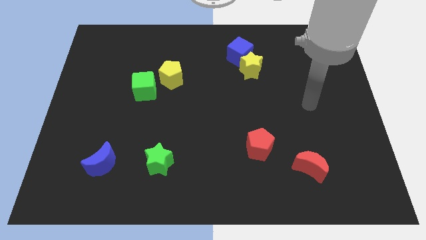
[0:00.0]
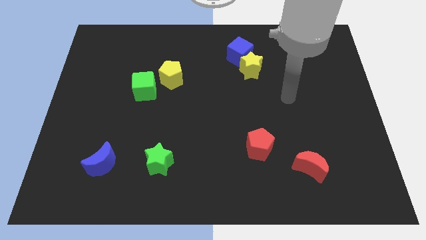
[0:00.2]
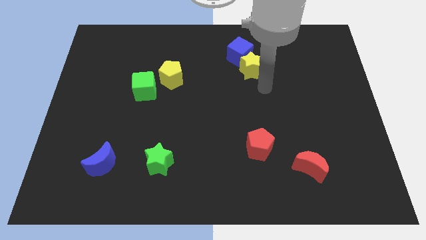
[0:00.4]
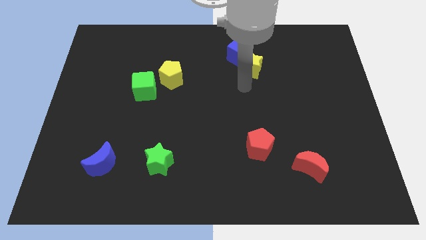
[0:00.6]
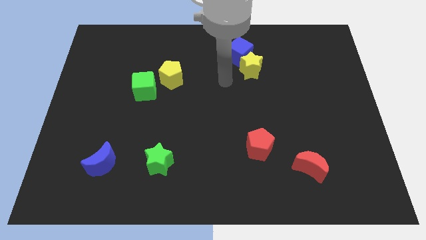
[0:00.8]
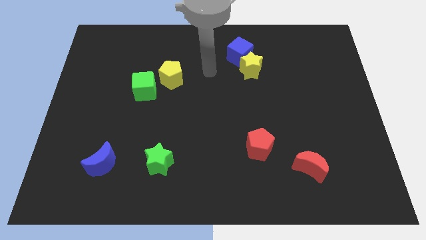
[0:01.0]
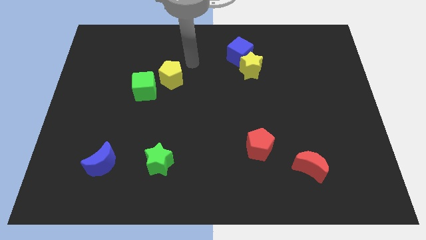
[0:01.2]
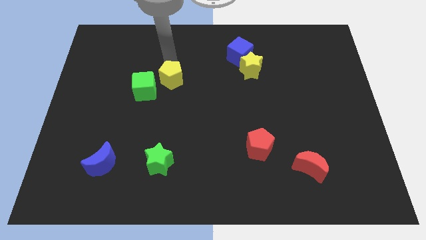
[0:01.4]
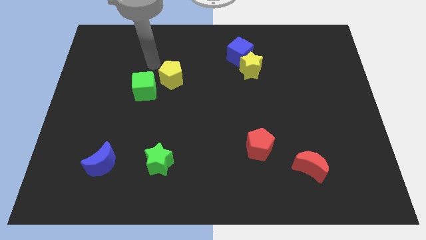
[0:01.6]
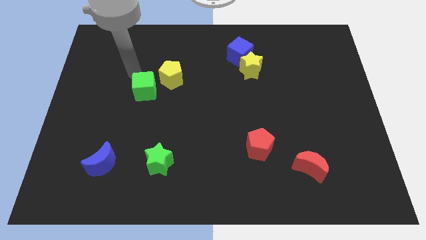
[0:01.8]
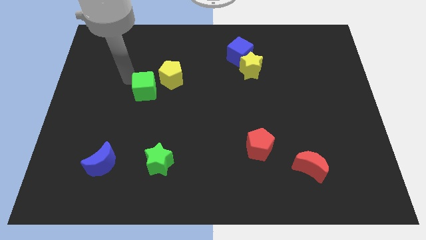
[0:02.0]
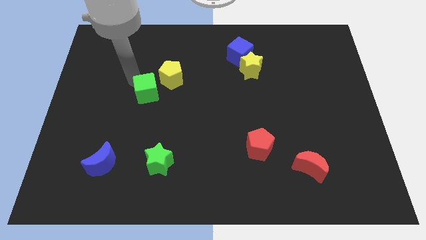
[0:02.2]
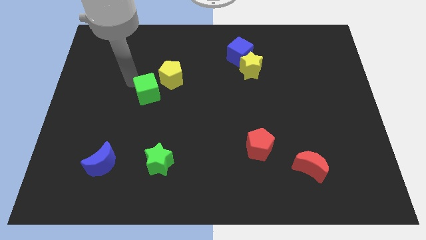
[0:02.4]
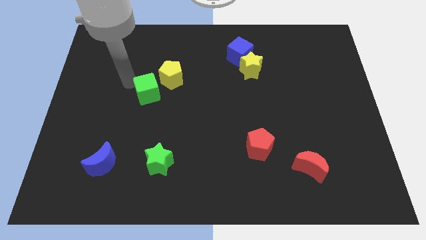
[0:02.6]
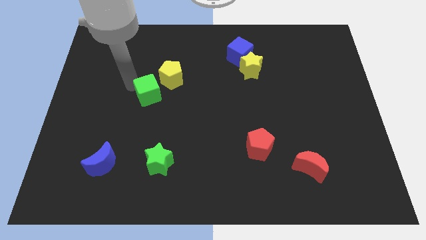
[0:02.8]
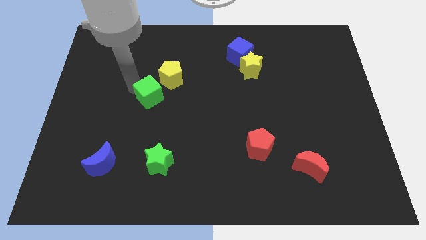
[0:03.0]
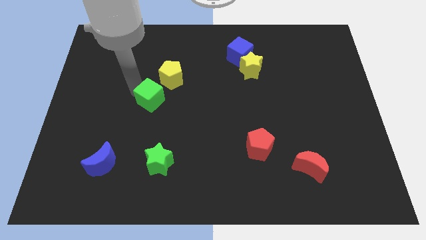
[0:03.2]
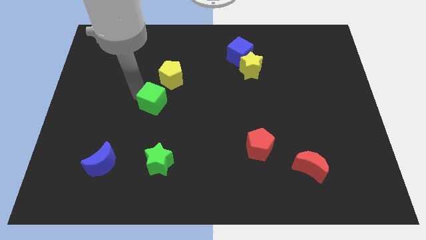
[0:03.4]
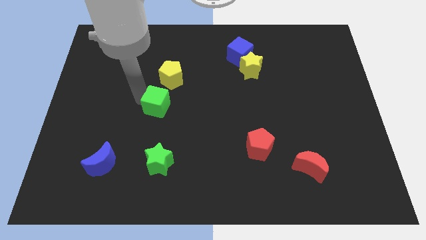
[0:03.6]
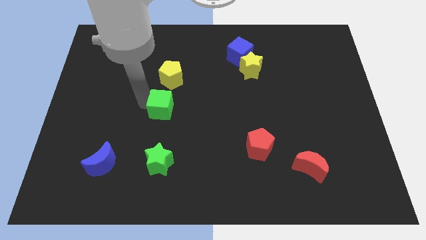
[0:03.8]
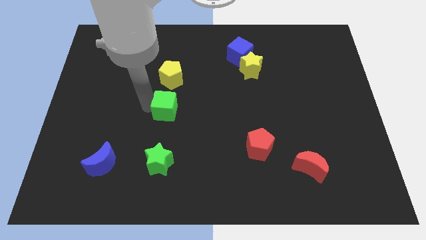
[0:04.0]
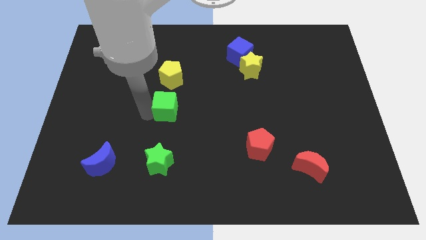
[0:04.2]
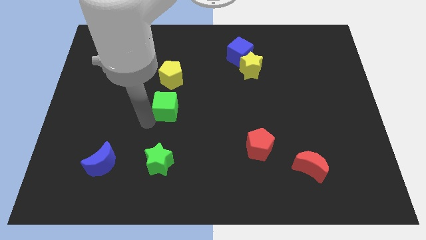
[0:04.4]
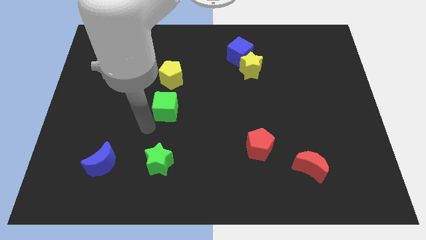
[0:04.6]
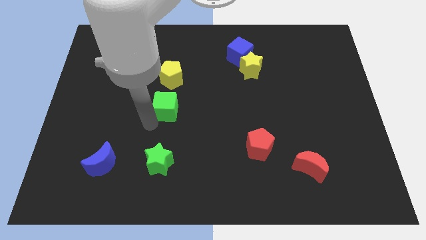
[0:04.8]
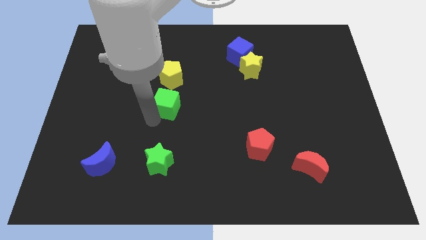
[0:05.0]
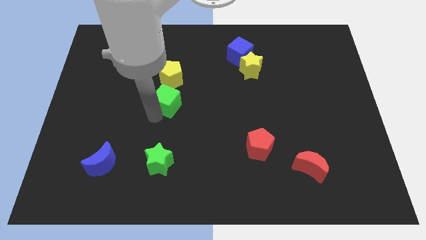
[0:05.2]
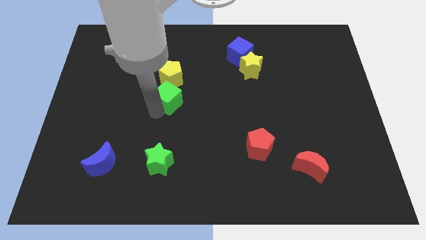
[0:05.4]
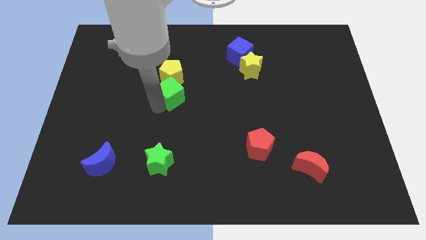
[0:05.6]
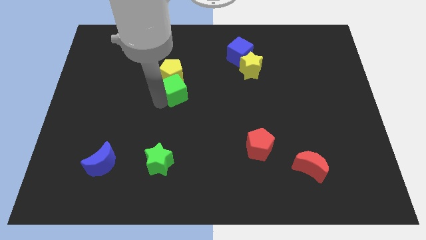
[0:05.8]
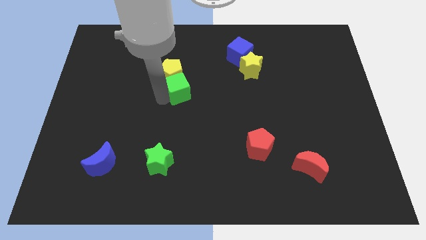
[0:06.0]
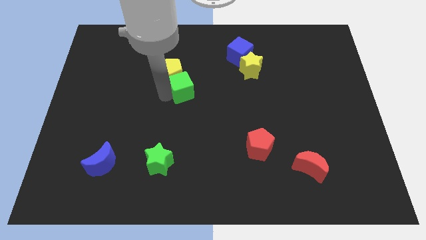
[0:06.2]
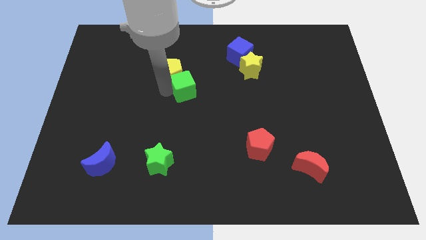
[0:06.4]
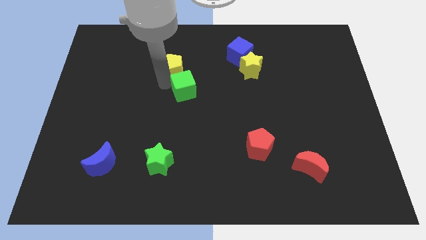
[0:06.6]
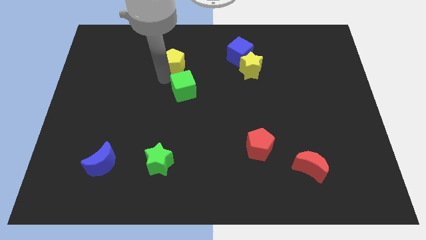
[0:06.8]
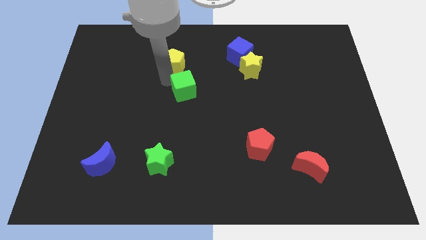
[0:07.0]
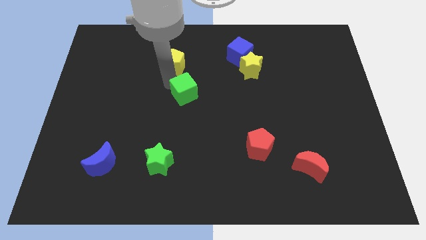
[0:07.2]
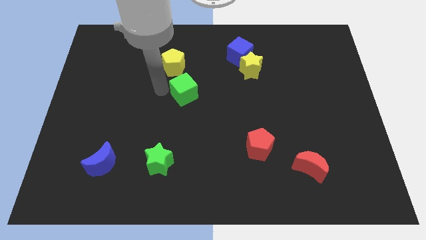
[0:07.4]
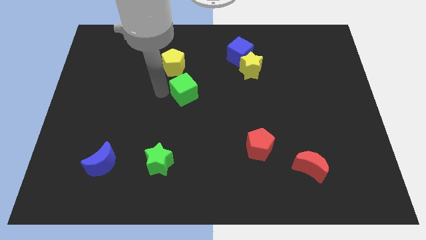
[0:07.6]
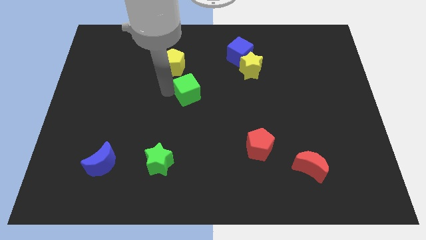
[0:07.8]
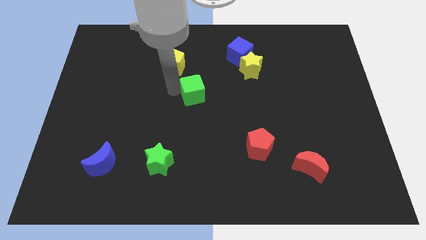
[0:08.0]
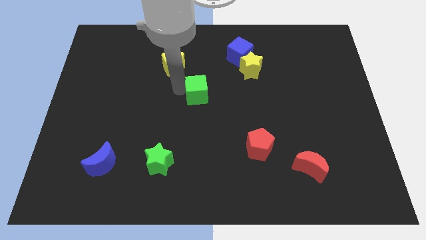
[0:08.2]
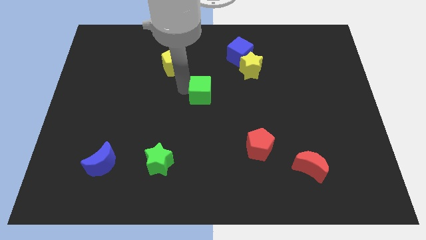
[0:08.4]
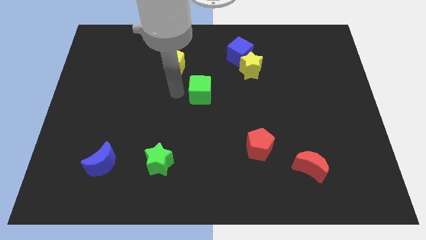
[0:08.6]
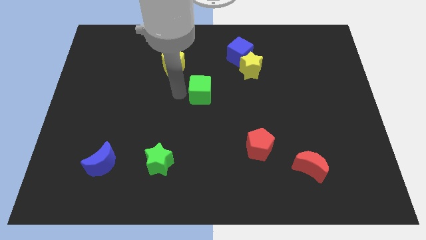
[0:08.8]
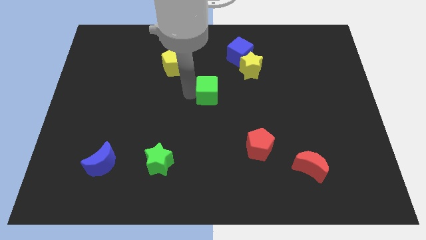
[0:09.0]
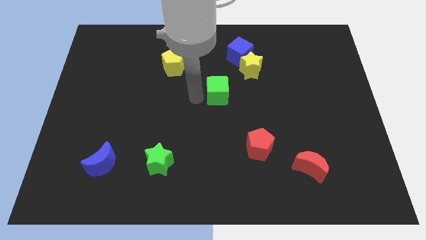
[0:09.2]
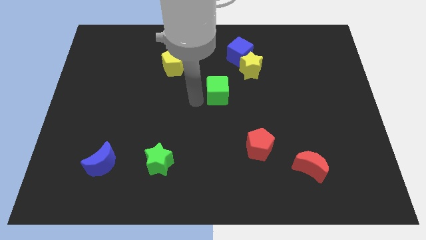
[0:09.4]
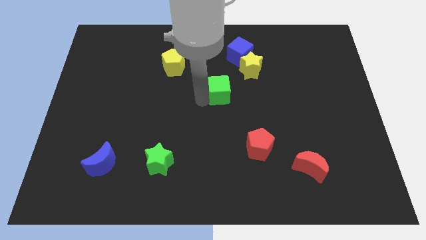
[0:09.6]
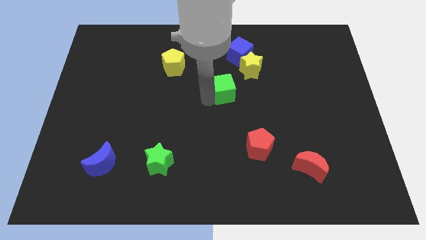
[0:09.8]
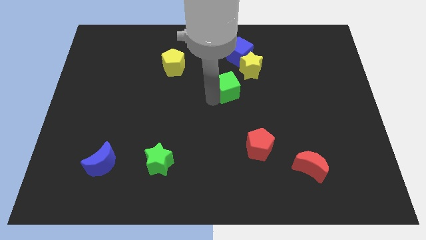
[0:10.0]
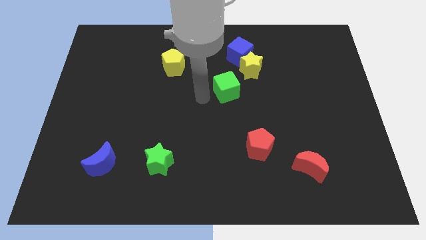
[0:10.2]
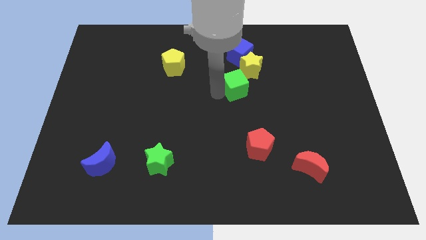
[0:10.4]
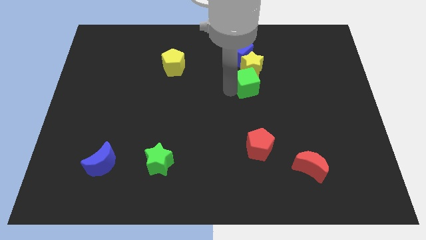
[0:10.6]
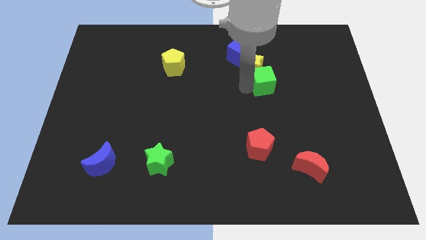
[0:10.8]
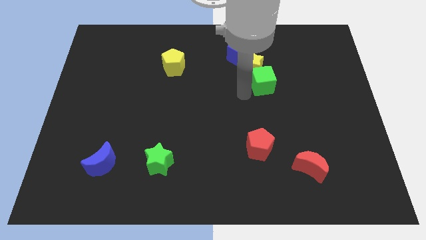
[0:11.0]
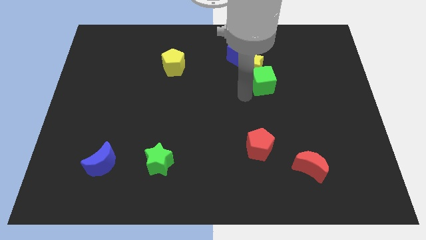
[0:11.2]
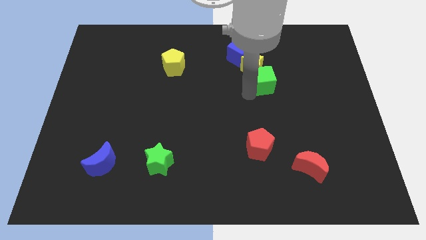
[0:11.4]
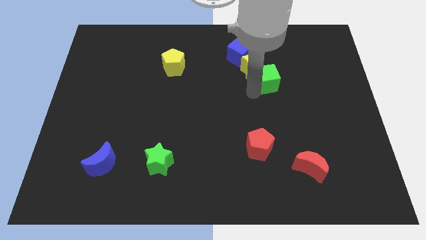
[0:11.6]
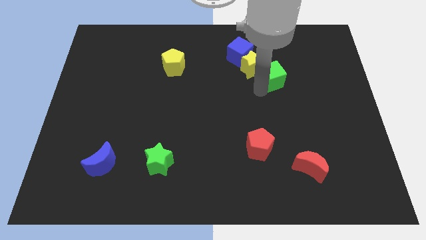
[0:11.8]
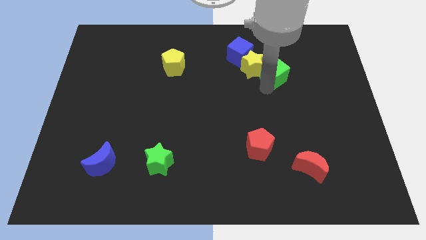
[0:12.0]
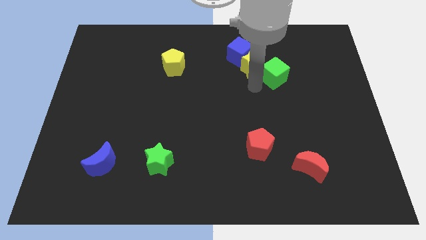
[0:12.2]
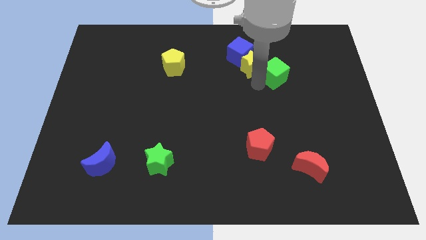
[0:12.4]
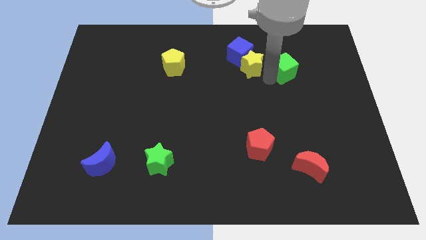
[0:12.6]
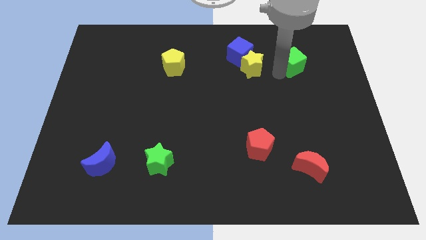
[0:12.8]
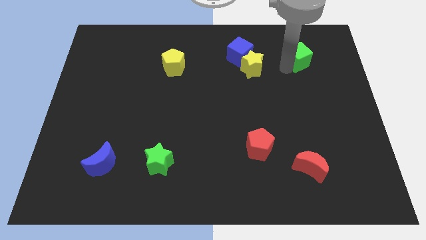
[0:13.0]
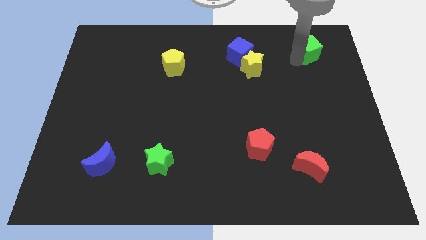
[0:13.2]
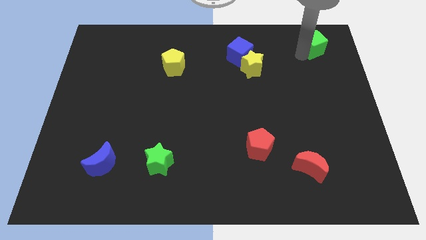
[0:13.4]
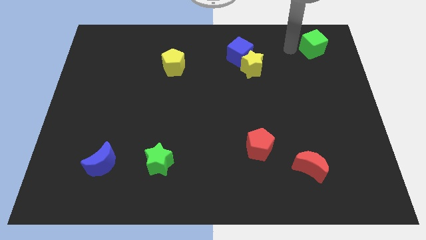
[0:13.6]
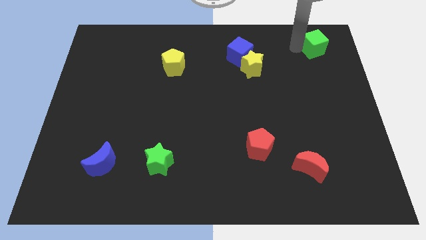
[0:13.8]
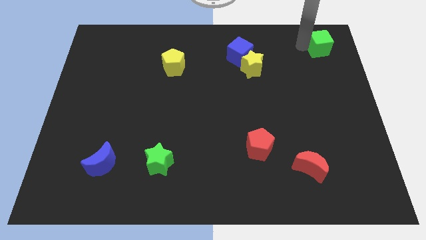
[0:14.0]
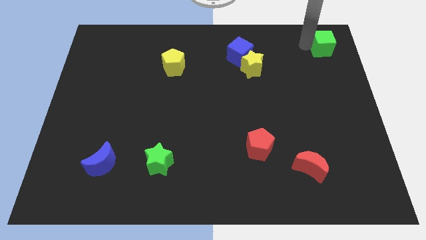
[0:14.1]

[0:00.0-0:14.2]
put the green cube to the top right corner

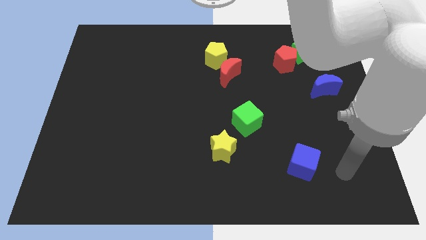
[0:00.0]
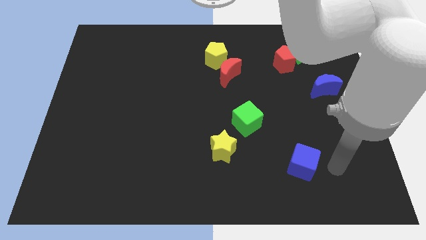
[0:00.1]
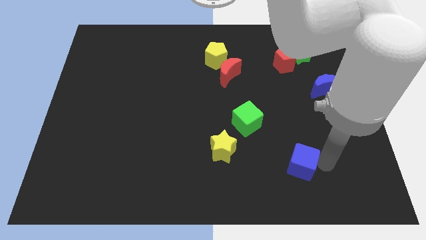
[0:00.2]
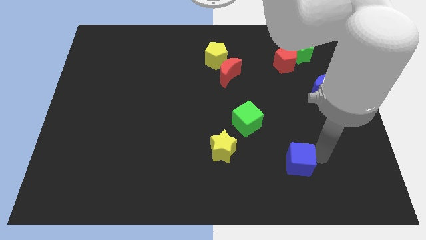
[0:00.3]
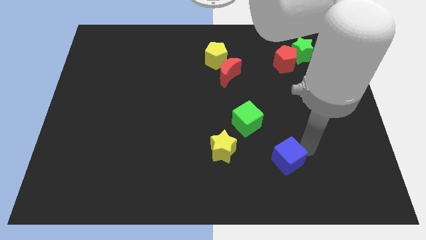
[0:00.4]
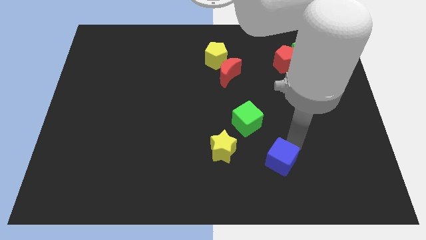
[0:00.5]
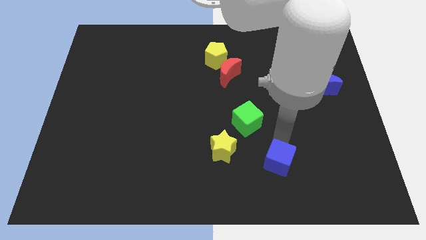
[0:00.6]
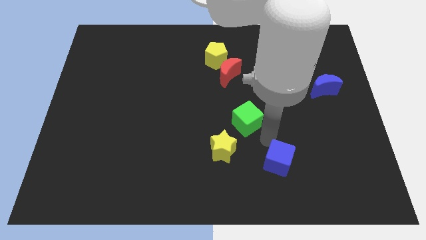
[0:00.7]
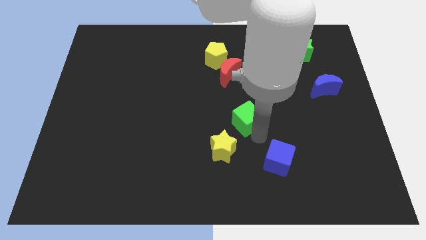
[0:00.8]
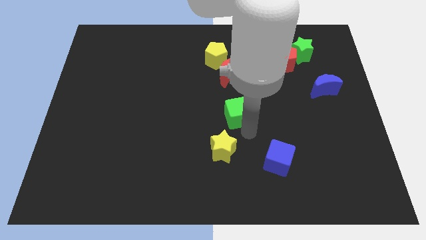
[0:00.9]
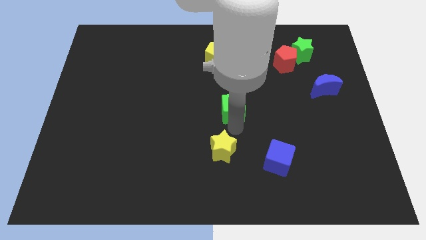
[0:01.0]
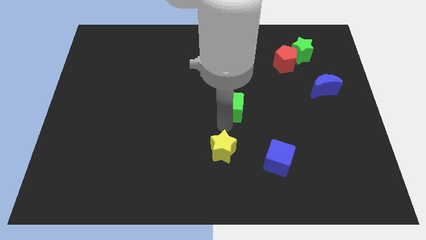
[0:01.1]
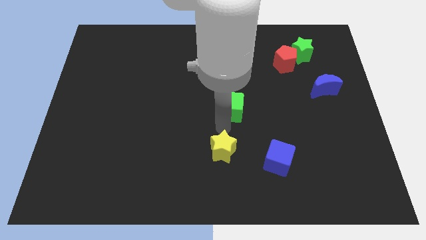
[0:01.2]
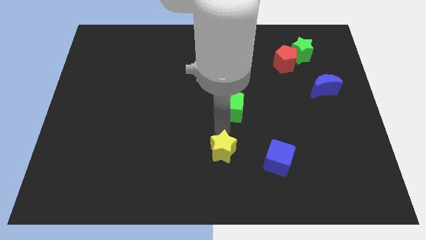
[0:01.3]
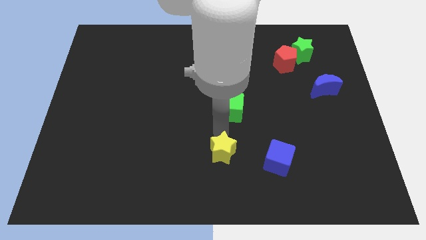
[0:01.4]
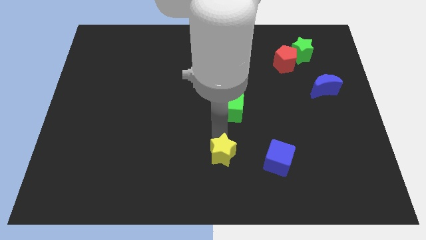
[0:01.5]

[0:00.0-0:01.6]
slide the yellow star to the bottom side
